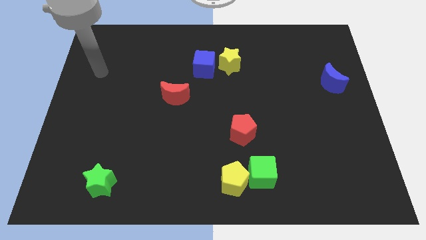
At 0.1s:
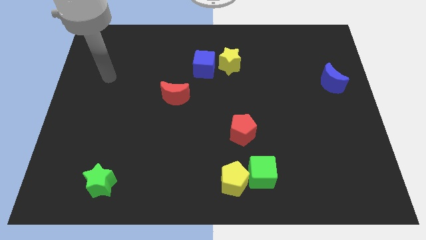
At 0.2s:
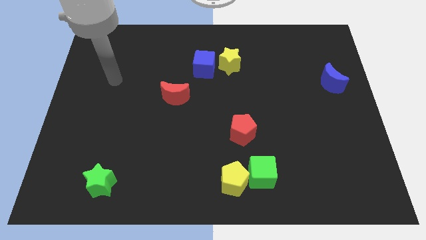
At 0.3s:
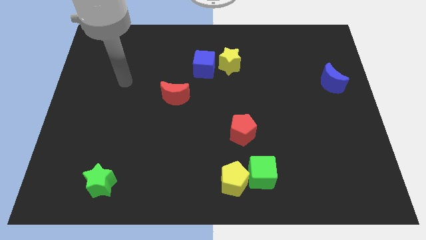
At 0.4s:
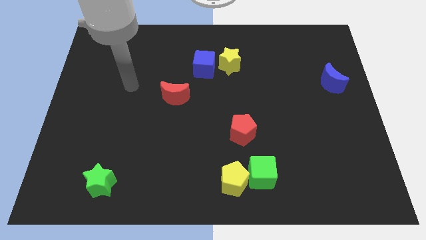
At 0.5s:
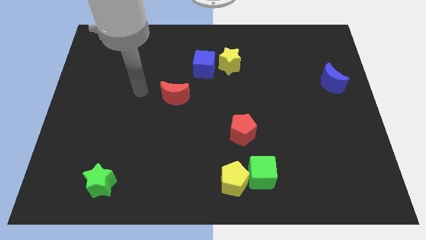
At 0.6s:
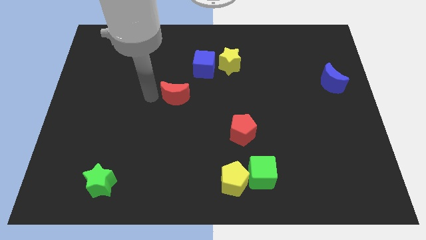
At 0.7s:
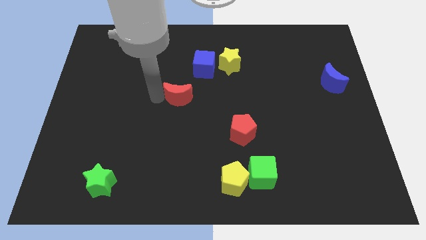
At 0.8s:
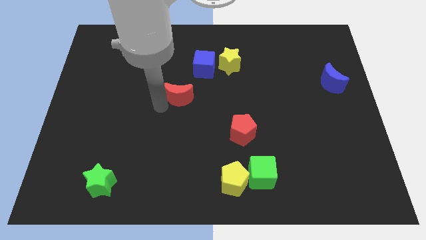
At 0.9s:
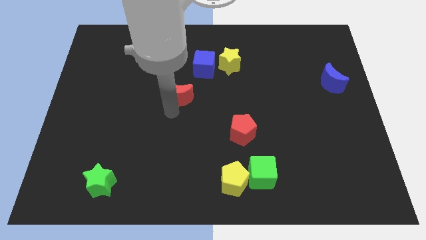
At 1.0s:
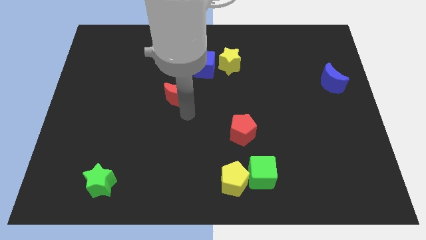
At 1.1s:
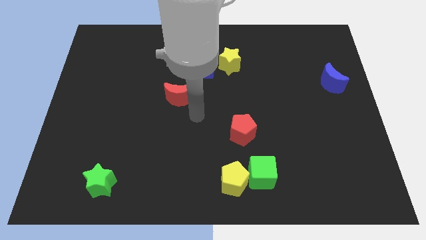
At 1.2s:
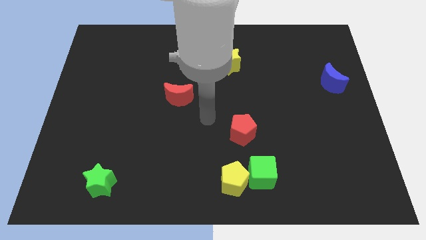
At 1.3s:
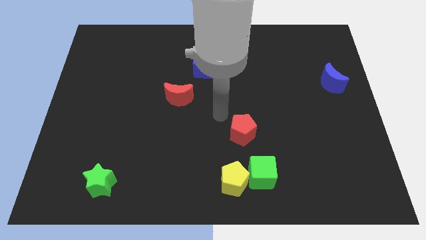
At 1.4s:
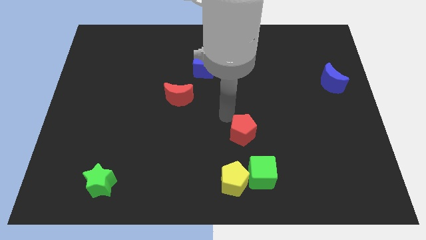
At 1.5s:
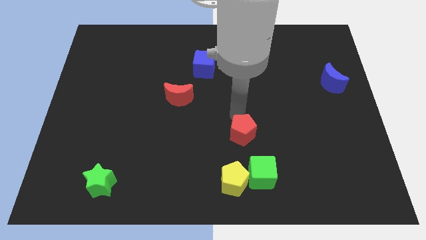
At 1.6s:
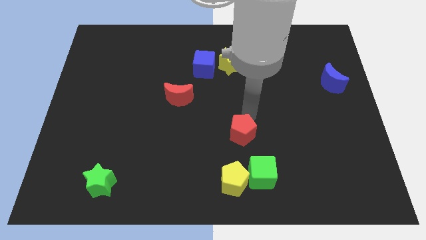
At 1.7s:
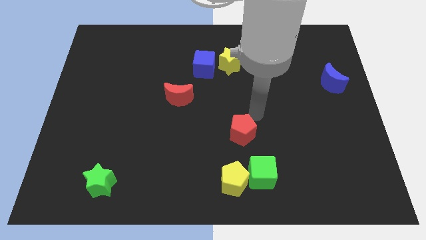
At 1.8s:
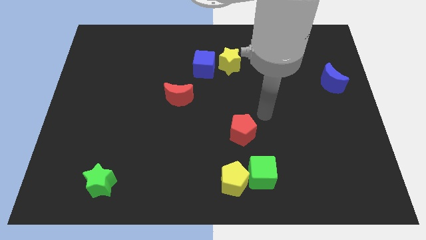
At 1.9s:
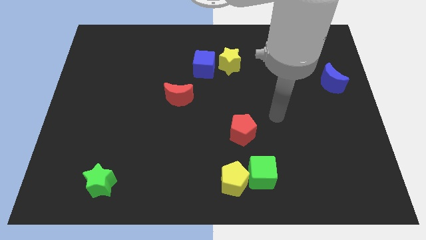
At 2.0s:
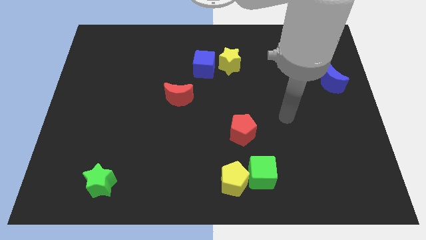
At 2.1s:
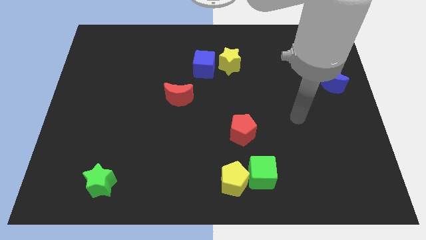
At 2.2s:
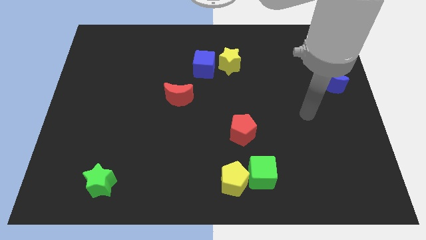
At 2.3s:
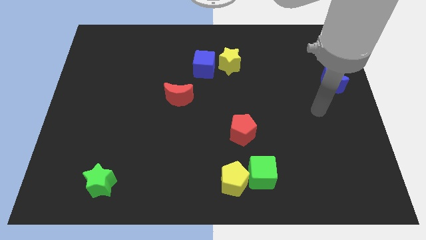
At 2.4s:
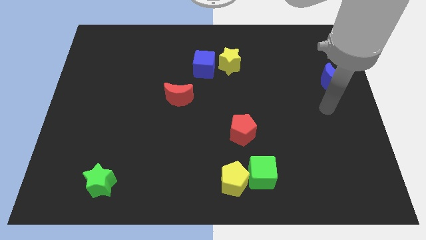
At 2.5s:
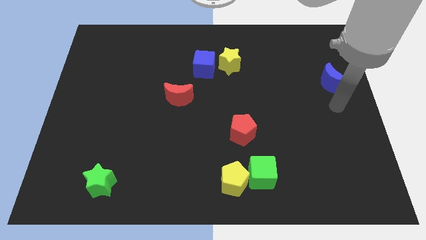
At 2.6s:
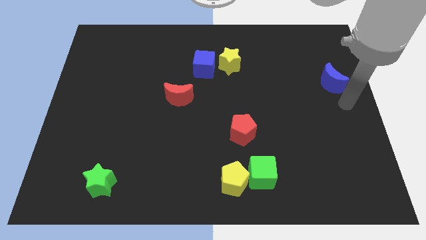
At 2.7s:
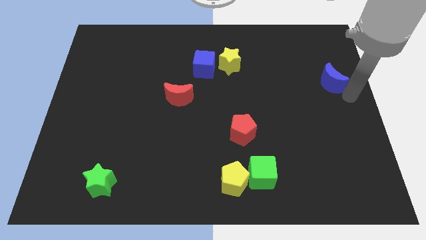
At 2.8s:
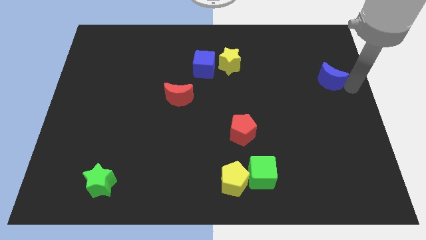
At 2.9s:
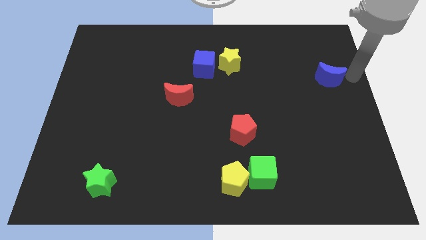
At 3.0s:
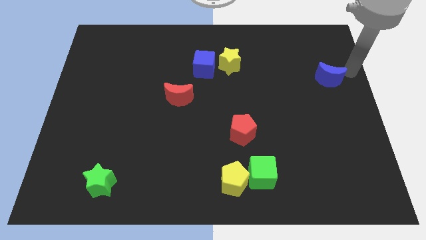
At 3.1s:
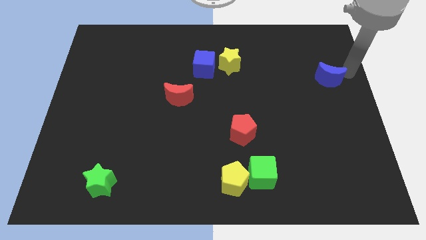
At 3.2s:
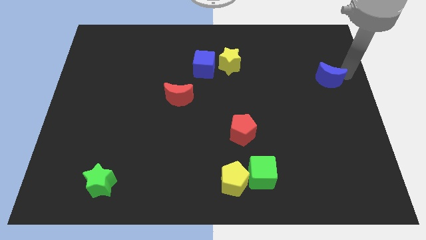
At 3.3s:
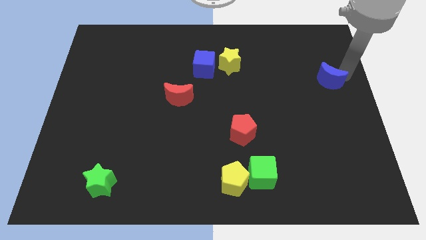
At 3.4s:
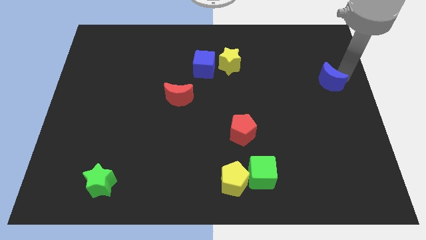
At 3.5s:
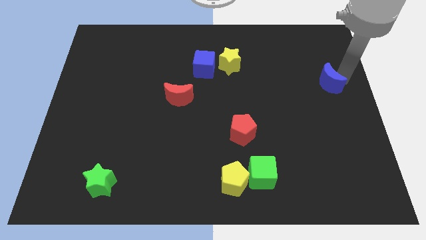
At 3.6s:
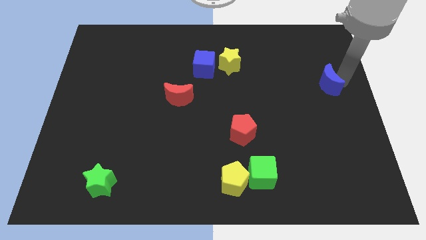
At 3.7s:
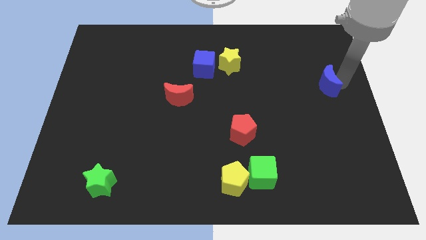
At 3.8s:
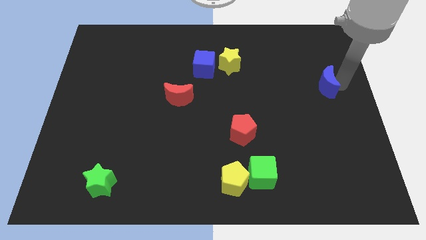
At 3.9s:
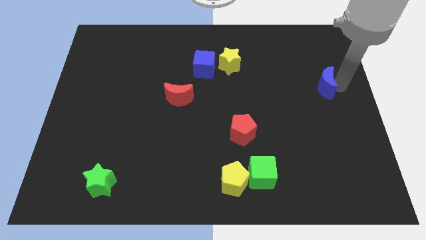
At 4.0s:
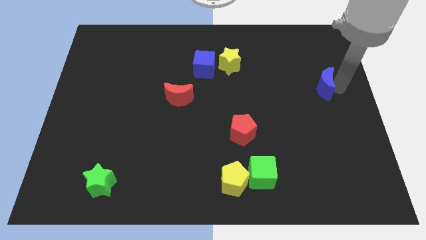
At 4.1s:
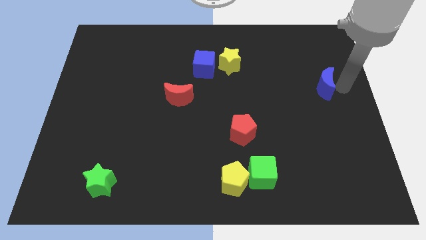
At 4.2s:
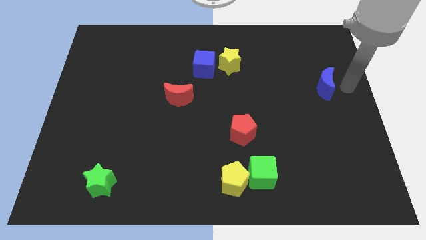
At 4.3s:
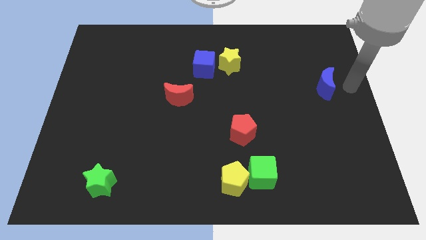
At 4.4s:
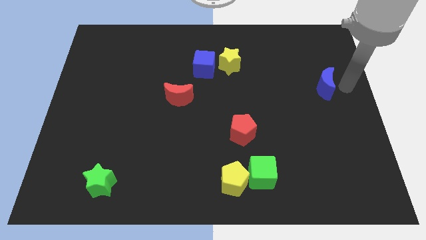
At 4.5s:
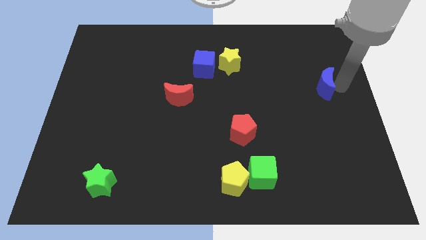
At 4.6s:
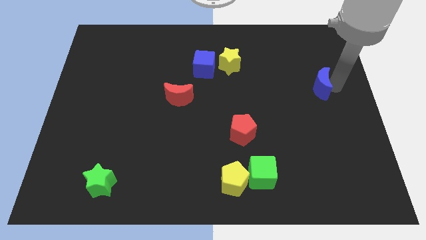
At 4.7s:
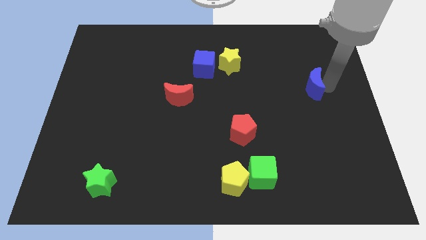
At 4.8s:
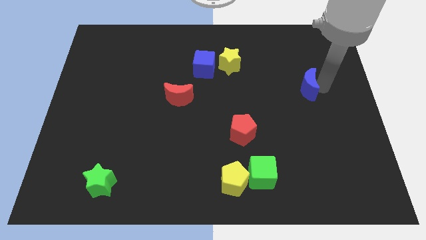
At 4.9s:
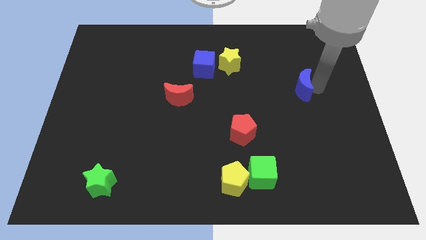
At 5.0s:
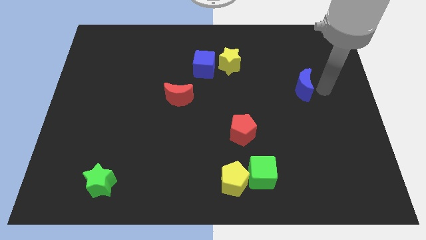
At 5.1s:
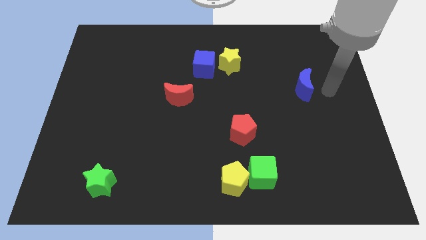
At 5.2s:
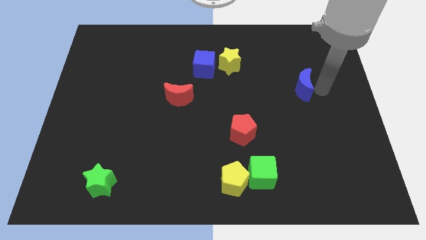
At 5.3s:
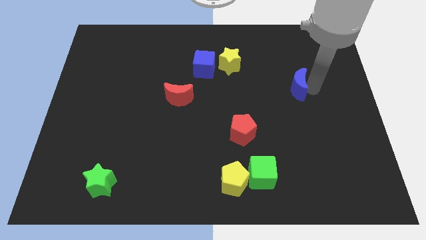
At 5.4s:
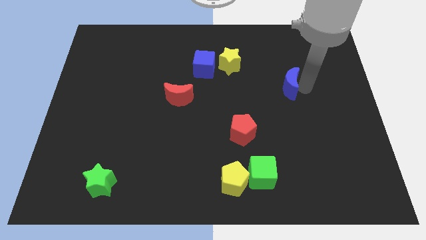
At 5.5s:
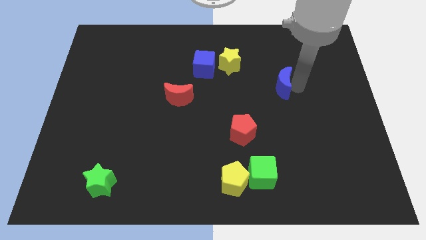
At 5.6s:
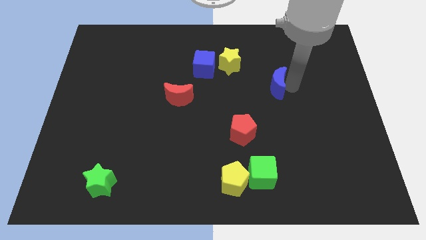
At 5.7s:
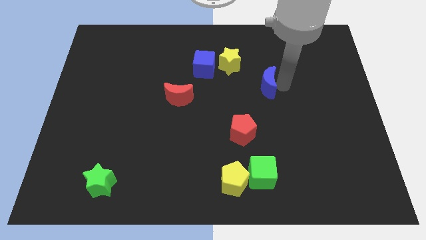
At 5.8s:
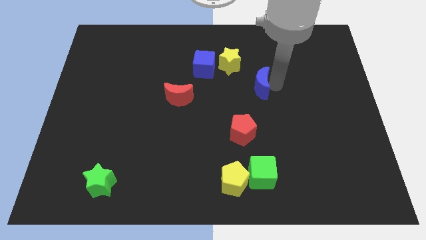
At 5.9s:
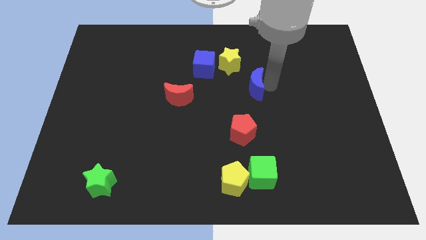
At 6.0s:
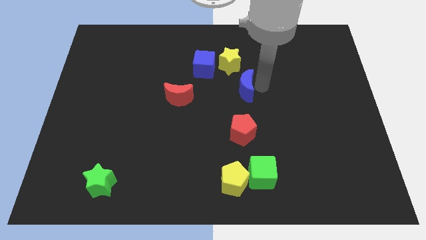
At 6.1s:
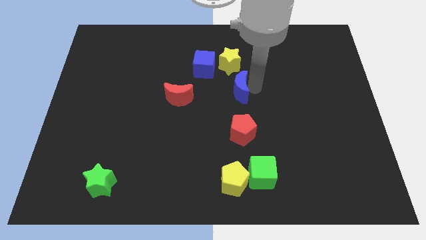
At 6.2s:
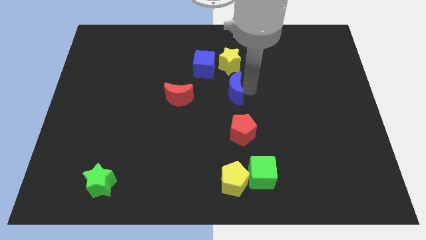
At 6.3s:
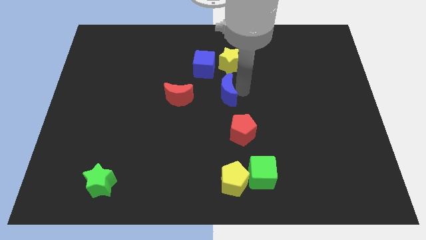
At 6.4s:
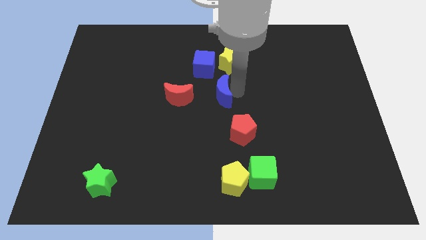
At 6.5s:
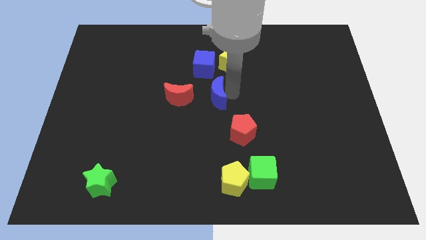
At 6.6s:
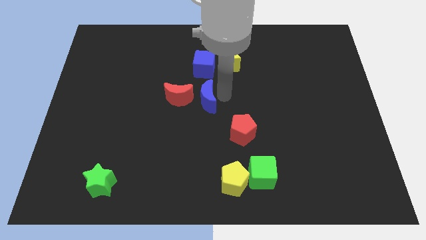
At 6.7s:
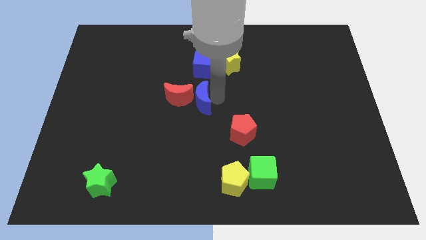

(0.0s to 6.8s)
slide the blue moon to the red moon

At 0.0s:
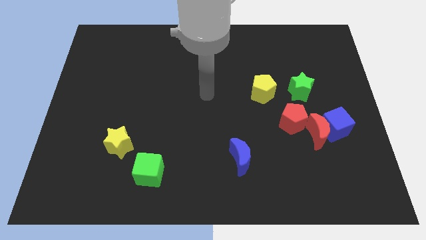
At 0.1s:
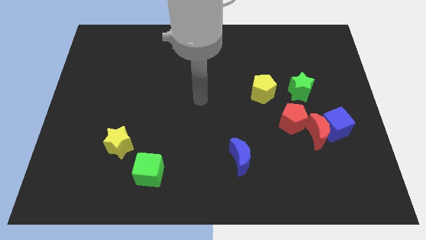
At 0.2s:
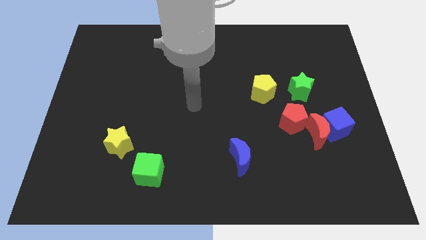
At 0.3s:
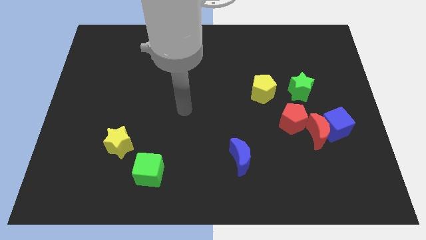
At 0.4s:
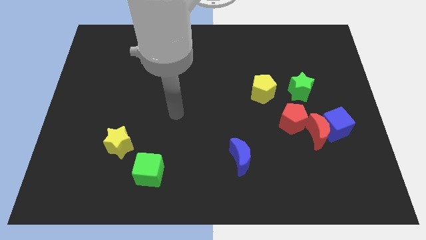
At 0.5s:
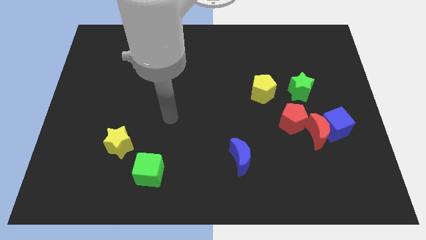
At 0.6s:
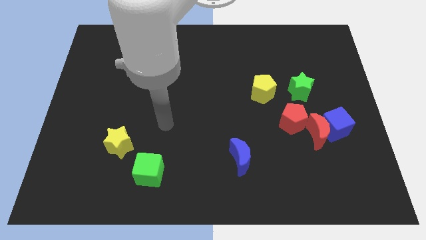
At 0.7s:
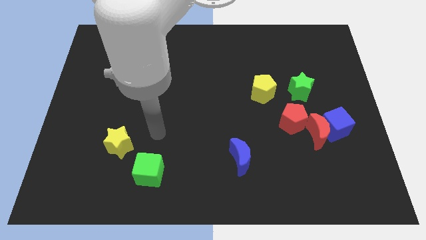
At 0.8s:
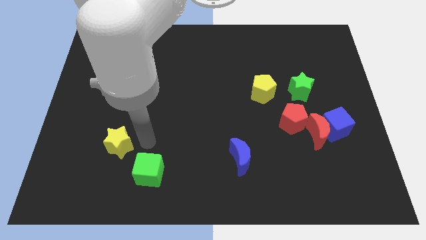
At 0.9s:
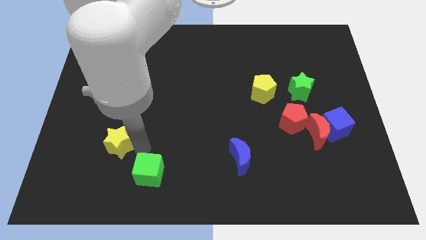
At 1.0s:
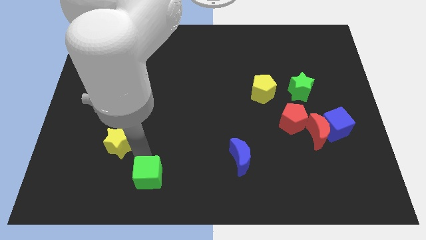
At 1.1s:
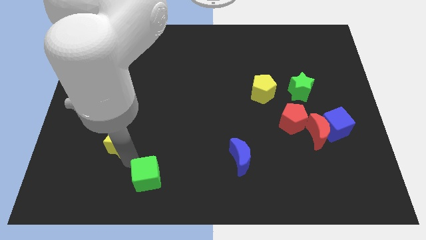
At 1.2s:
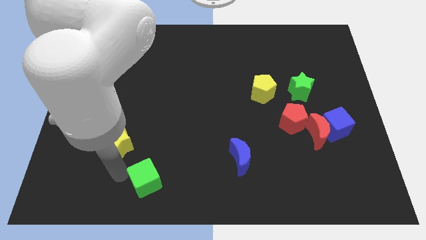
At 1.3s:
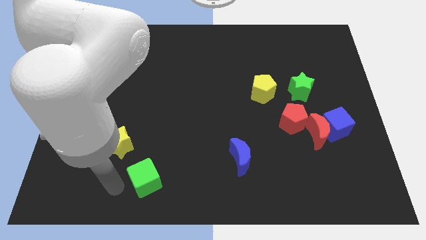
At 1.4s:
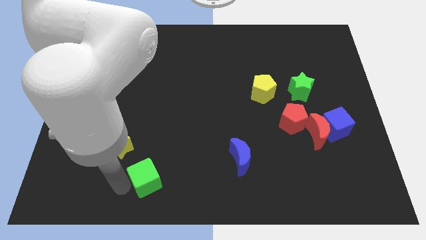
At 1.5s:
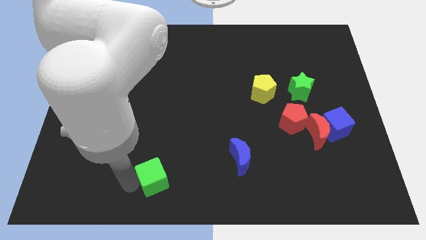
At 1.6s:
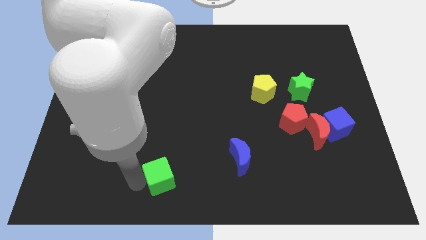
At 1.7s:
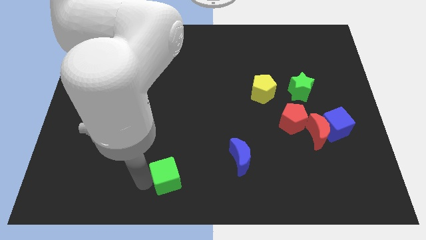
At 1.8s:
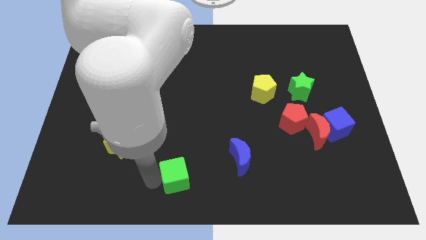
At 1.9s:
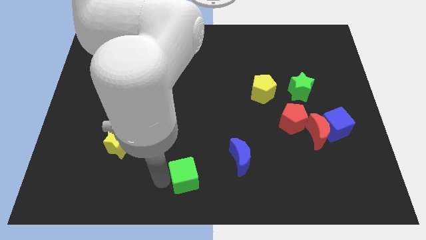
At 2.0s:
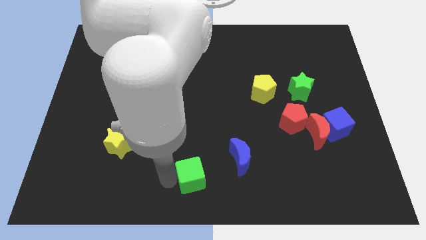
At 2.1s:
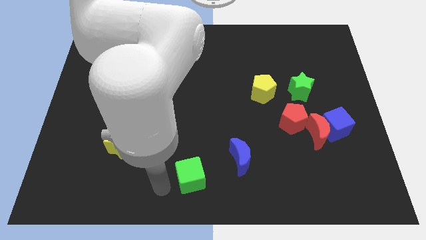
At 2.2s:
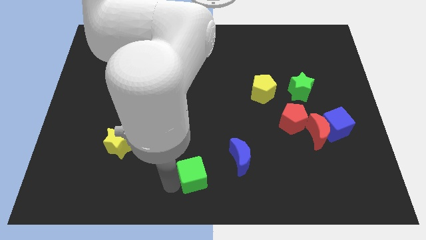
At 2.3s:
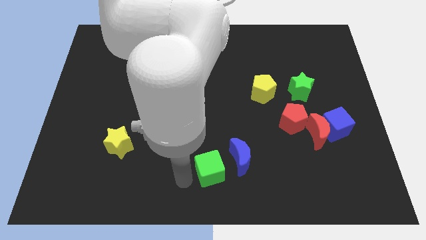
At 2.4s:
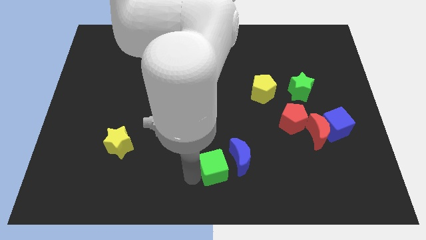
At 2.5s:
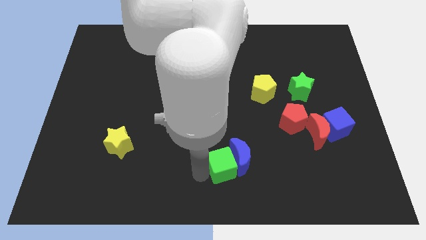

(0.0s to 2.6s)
slide the green cube to the blue moon
